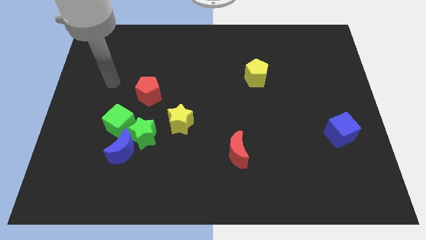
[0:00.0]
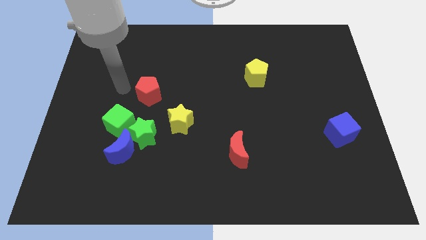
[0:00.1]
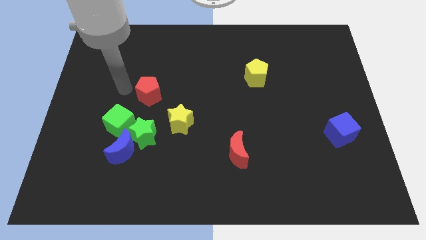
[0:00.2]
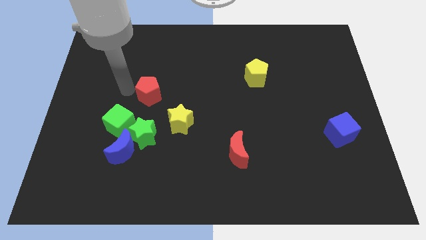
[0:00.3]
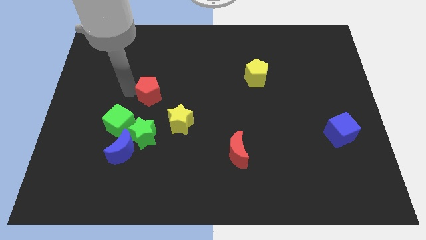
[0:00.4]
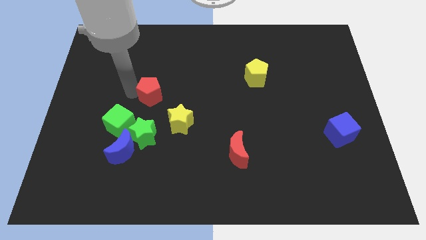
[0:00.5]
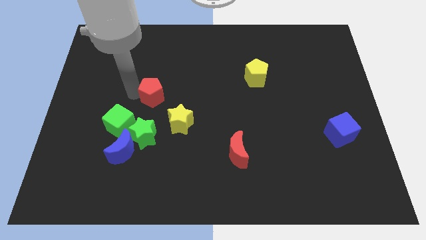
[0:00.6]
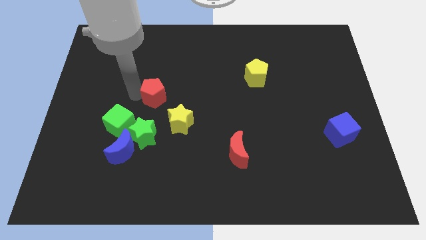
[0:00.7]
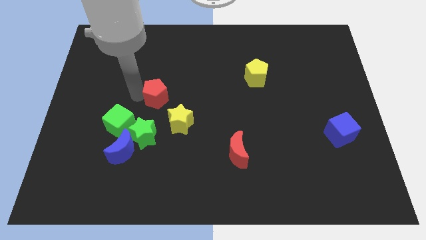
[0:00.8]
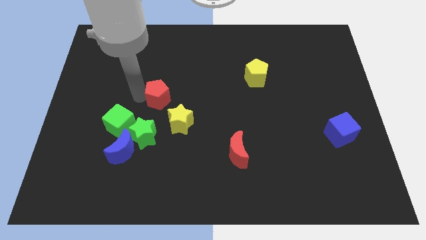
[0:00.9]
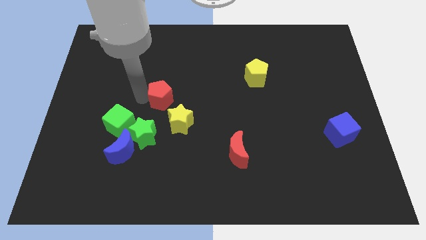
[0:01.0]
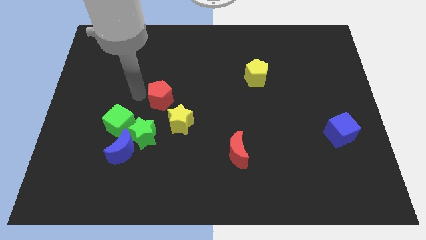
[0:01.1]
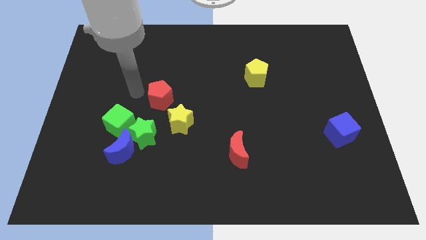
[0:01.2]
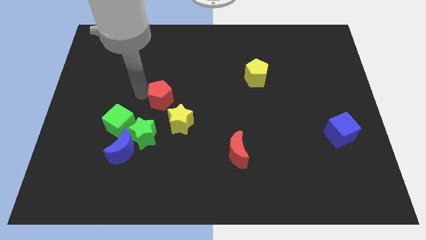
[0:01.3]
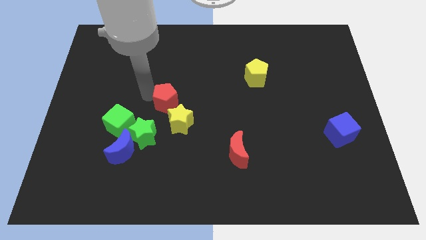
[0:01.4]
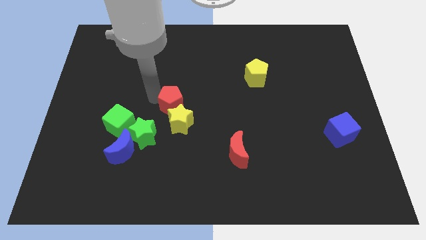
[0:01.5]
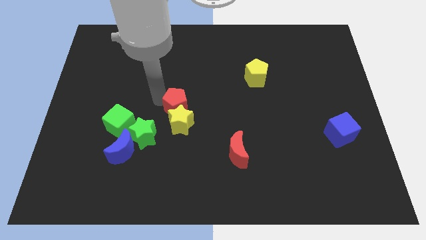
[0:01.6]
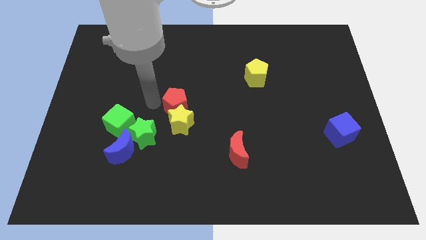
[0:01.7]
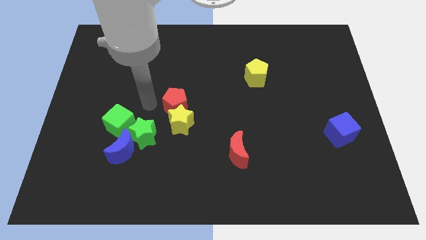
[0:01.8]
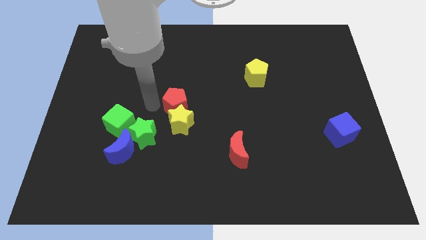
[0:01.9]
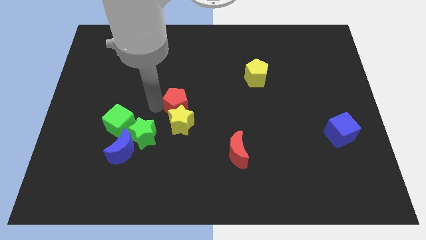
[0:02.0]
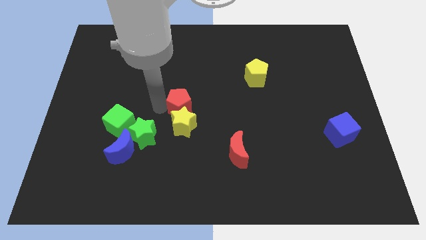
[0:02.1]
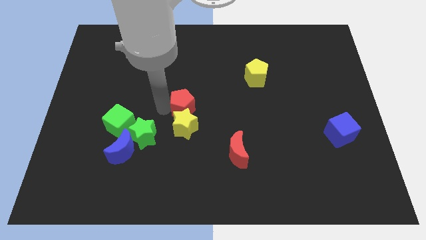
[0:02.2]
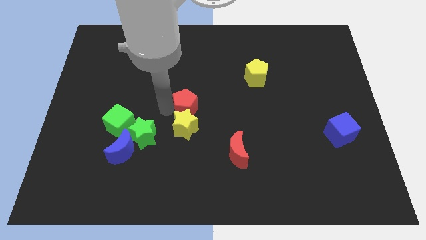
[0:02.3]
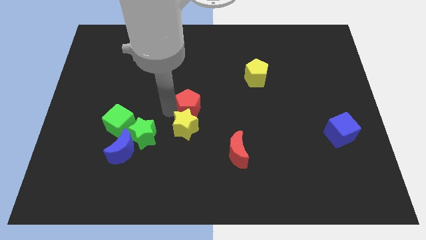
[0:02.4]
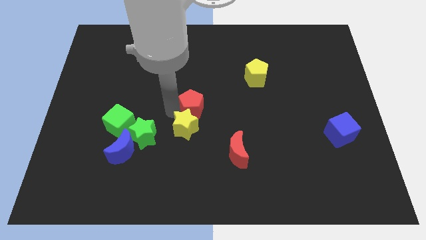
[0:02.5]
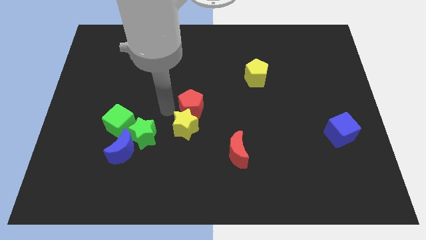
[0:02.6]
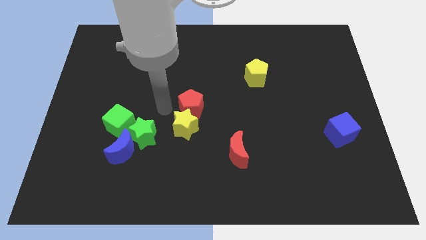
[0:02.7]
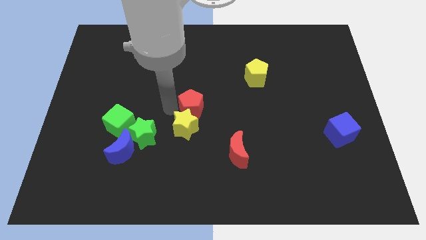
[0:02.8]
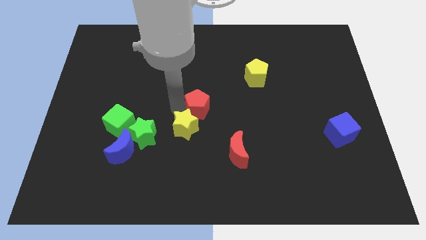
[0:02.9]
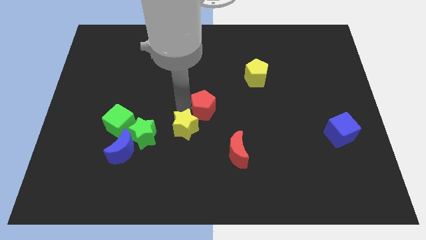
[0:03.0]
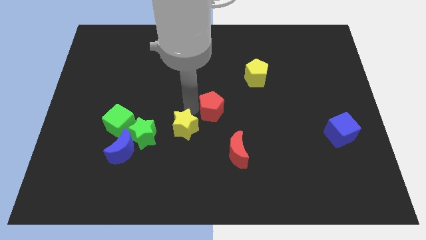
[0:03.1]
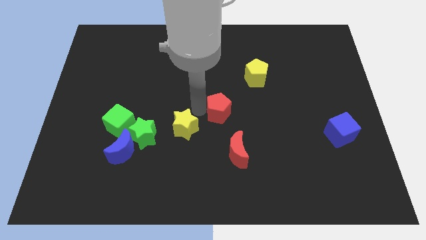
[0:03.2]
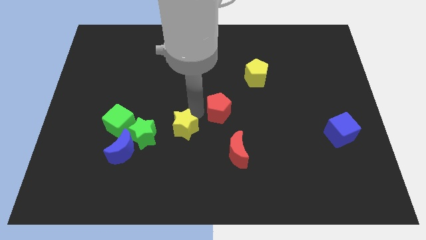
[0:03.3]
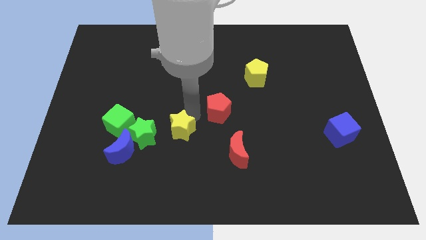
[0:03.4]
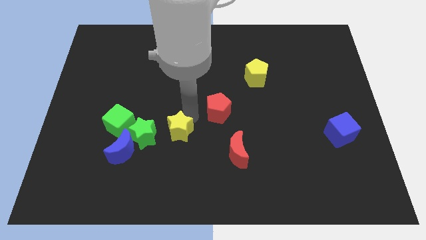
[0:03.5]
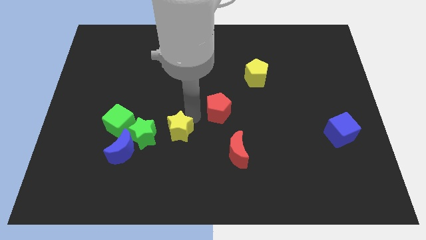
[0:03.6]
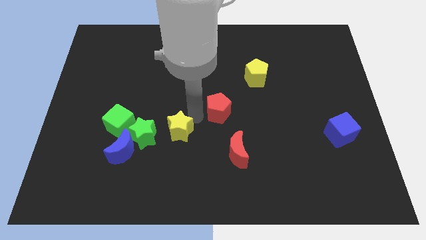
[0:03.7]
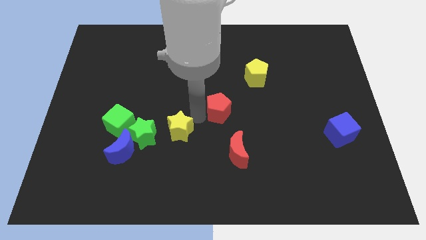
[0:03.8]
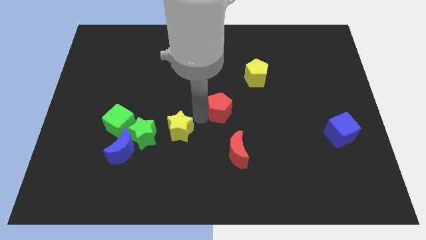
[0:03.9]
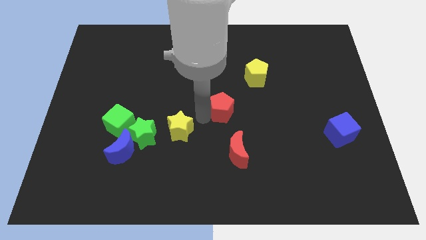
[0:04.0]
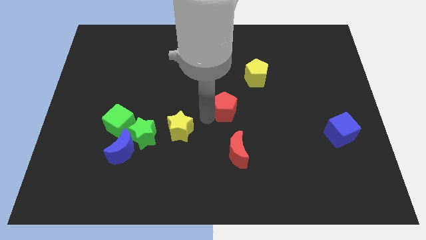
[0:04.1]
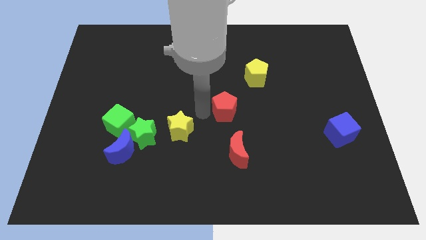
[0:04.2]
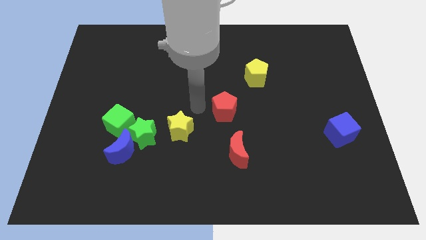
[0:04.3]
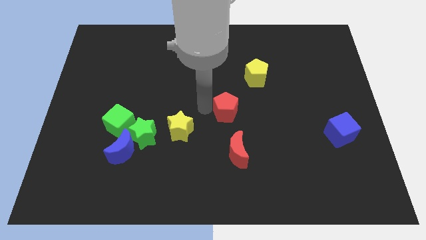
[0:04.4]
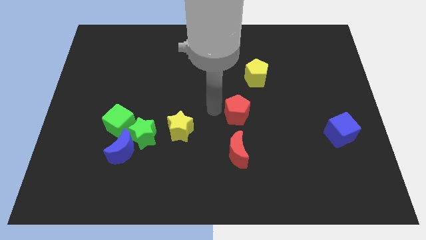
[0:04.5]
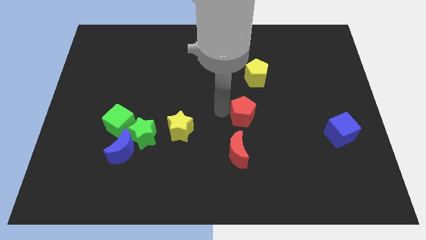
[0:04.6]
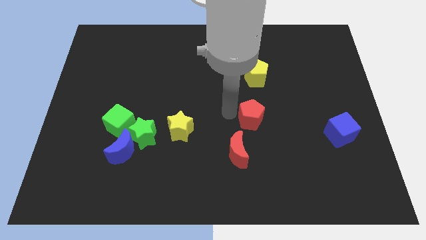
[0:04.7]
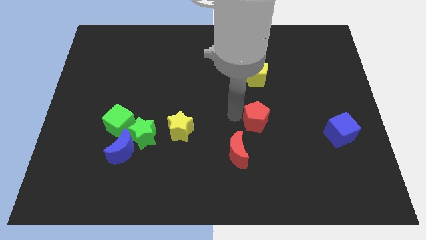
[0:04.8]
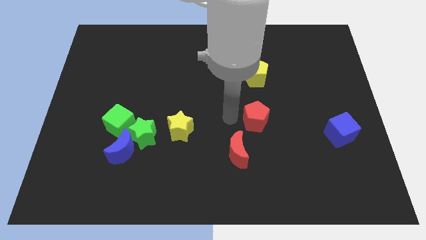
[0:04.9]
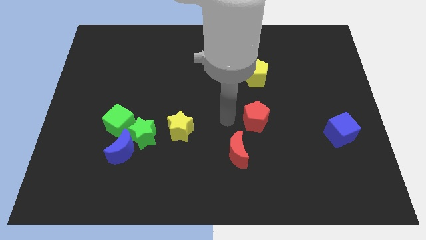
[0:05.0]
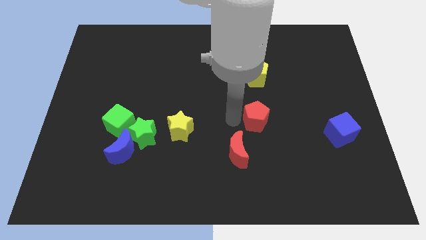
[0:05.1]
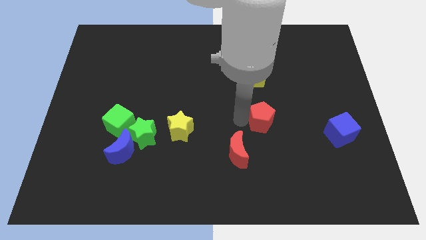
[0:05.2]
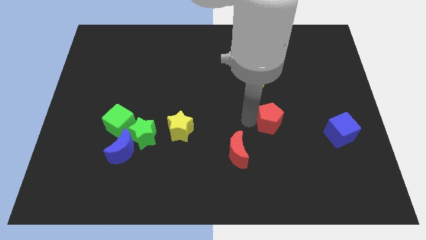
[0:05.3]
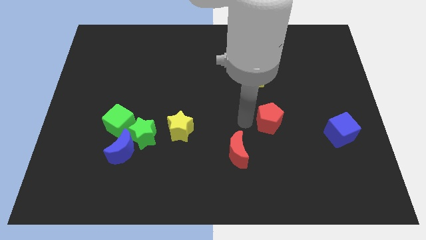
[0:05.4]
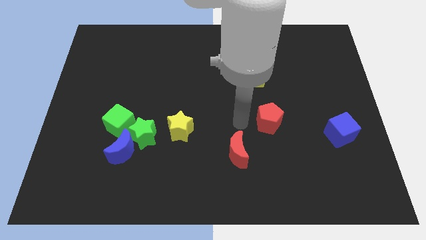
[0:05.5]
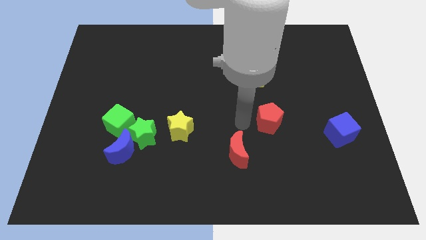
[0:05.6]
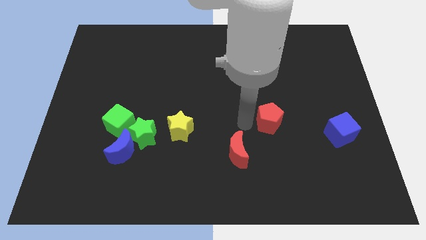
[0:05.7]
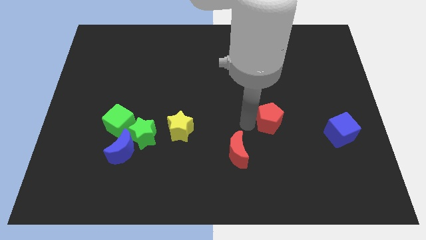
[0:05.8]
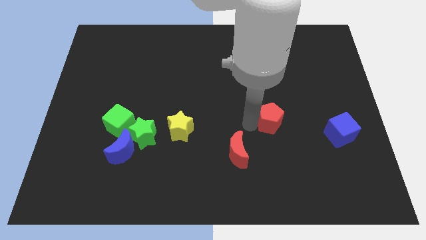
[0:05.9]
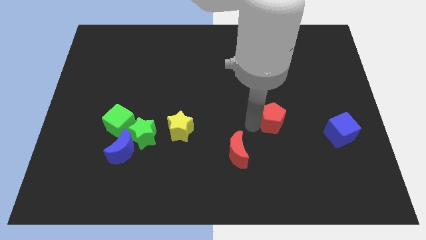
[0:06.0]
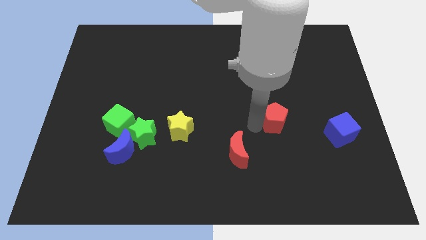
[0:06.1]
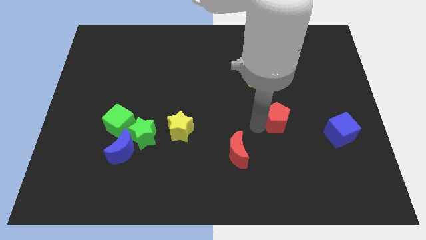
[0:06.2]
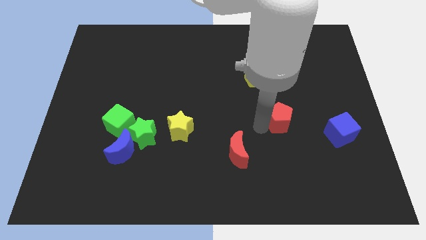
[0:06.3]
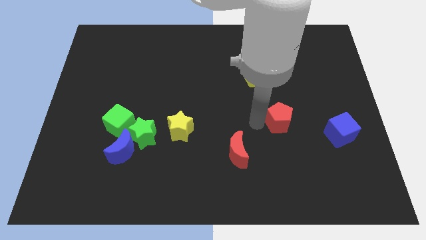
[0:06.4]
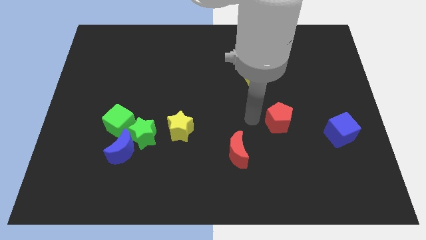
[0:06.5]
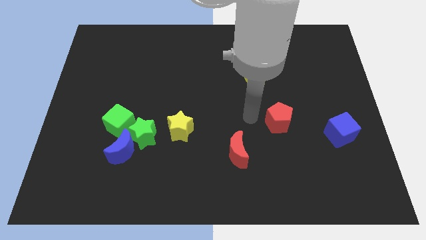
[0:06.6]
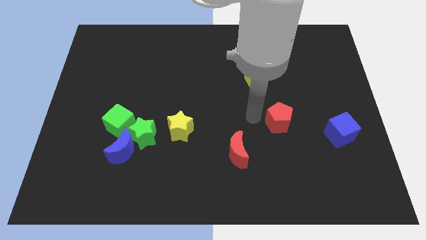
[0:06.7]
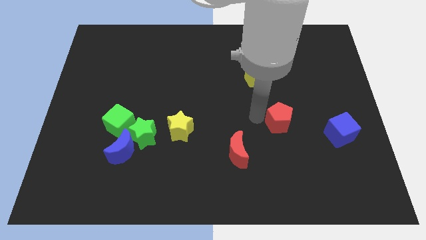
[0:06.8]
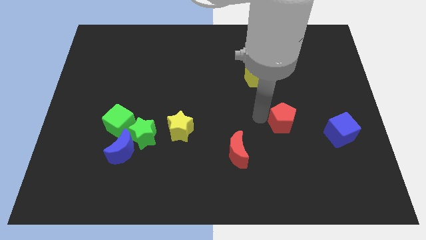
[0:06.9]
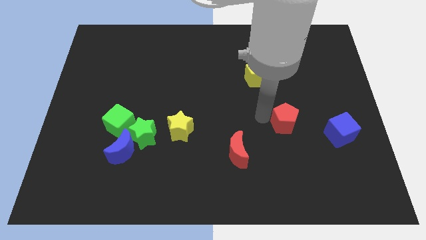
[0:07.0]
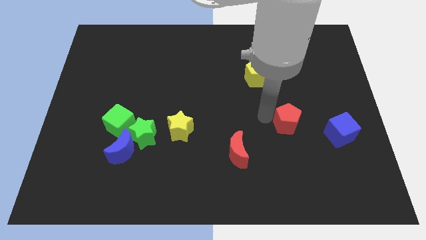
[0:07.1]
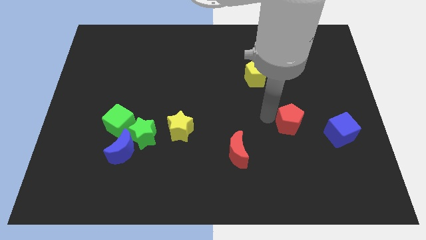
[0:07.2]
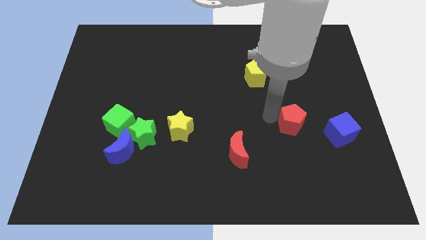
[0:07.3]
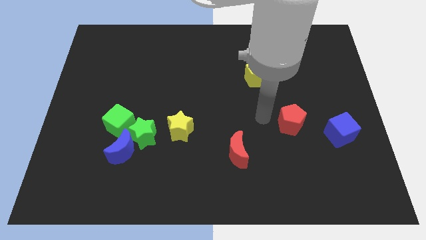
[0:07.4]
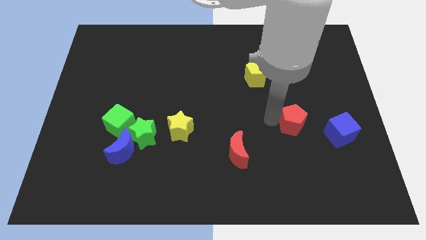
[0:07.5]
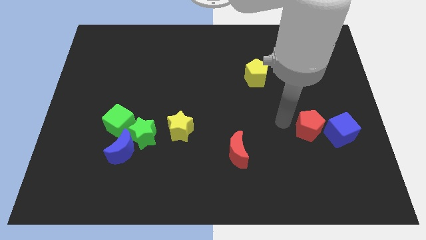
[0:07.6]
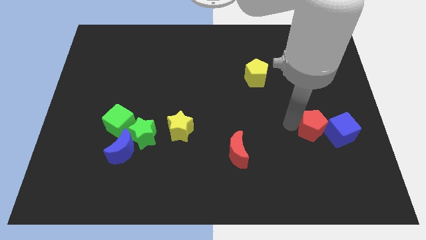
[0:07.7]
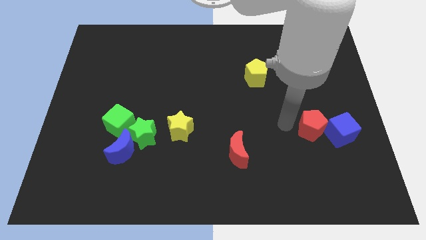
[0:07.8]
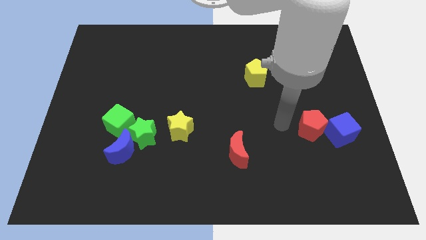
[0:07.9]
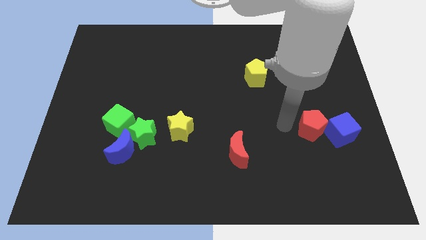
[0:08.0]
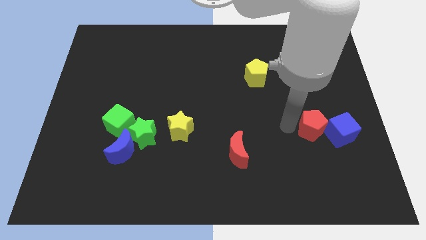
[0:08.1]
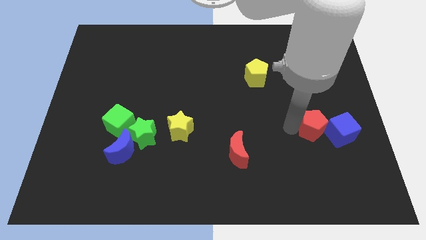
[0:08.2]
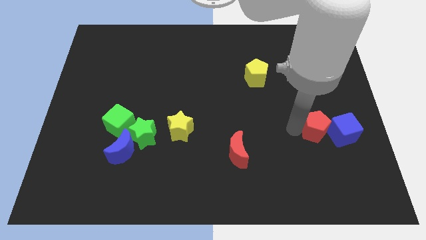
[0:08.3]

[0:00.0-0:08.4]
put the red pentagon to the blue cube

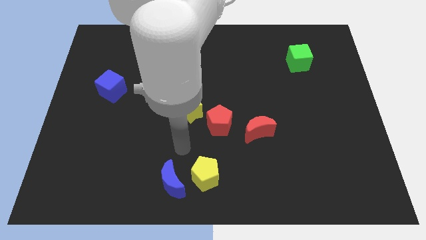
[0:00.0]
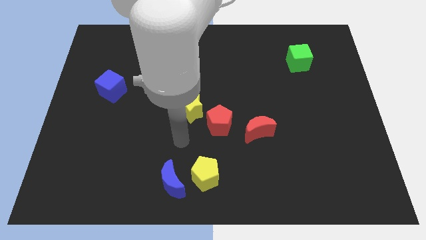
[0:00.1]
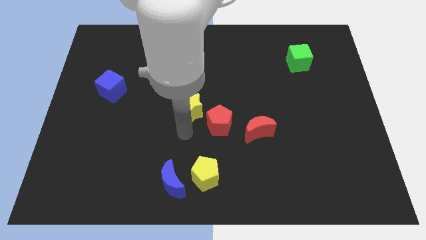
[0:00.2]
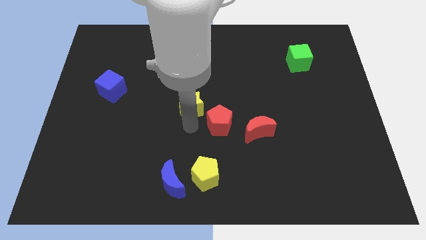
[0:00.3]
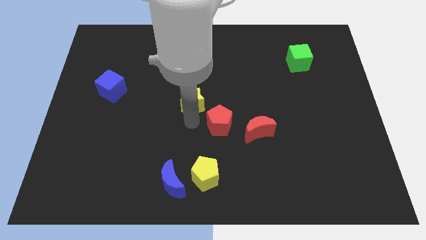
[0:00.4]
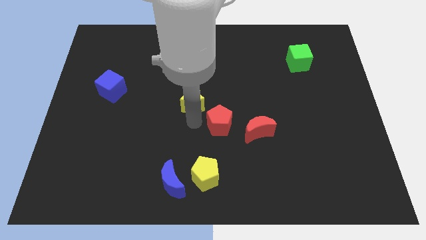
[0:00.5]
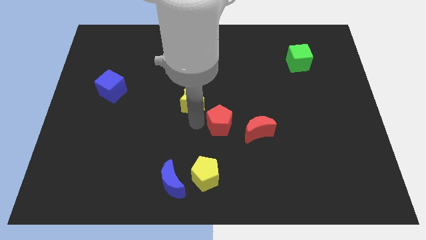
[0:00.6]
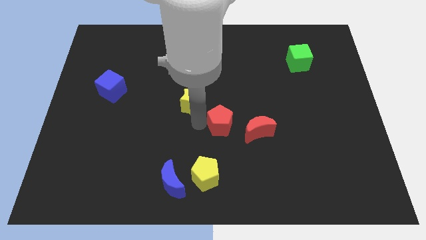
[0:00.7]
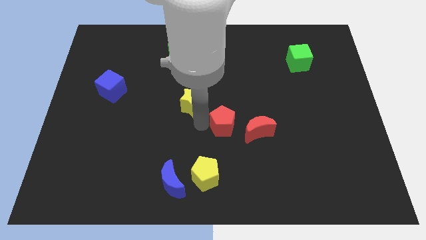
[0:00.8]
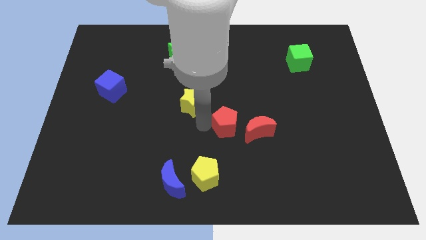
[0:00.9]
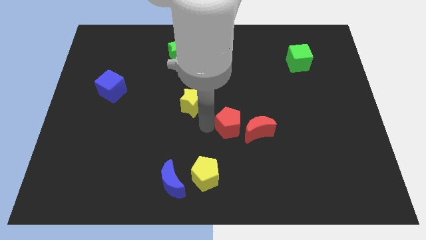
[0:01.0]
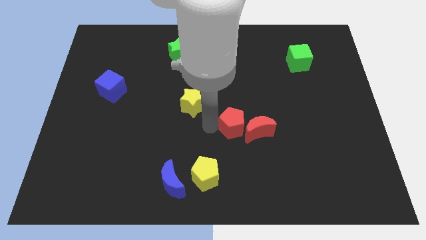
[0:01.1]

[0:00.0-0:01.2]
slide the red pentagon to the red moon
